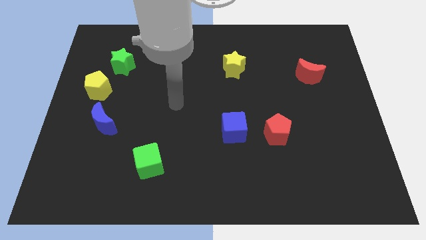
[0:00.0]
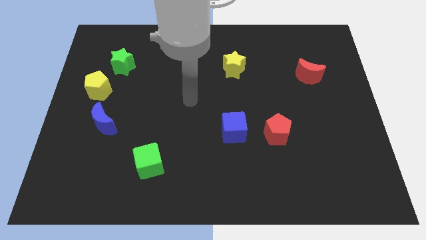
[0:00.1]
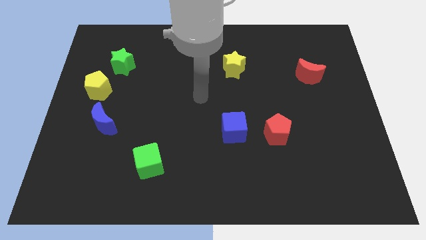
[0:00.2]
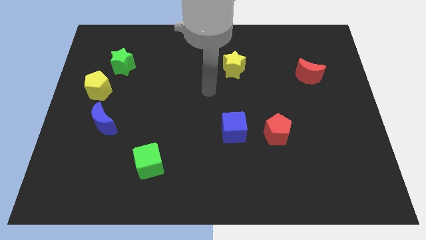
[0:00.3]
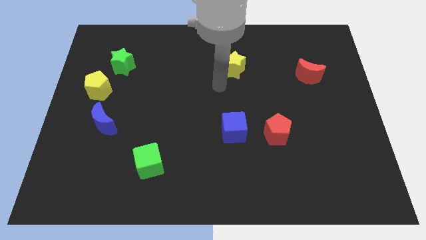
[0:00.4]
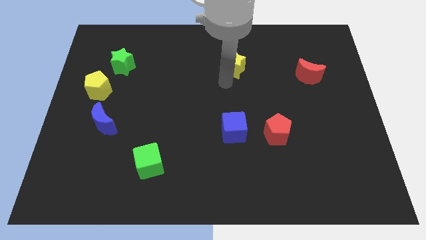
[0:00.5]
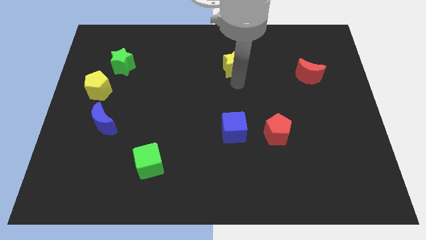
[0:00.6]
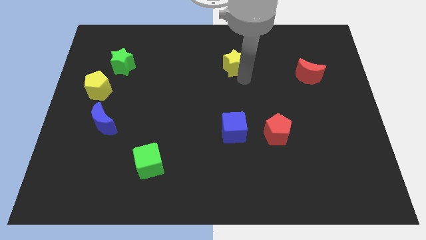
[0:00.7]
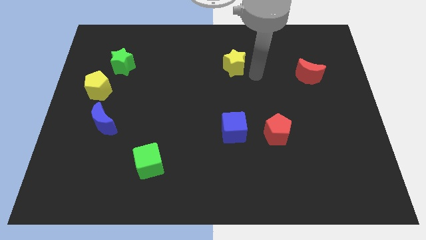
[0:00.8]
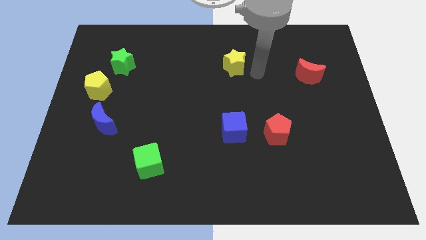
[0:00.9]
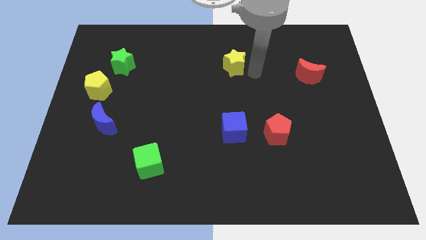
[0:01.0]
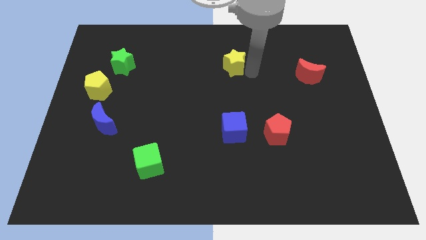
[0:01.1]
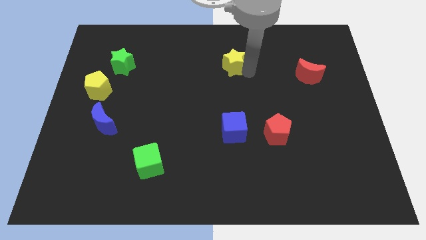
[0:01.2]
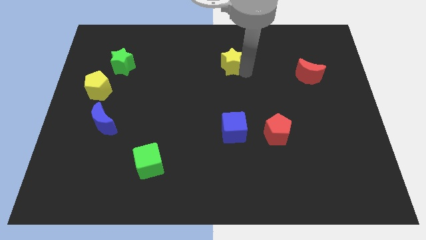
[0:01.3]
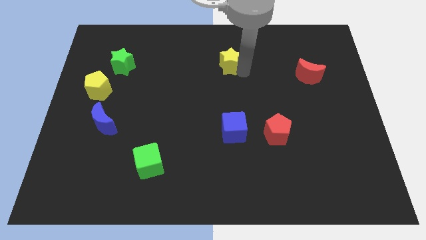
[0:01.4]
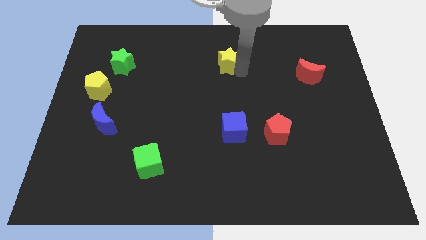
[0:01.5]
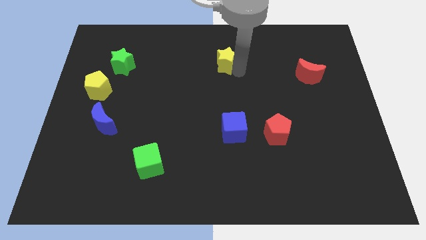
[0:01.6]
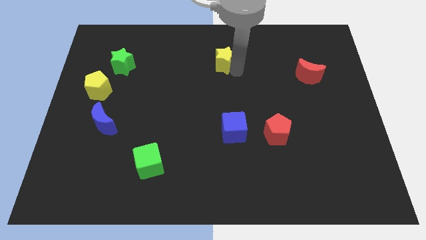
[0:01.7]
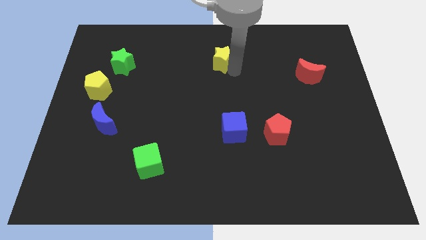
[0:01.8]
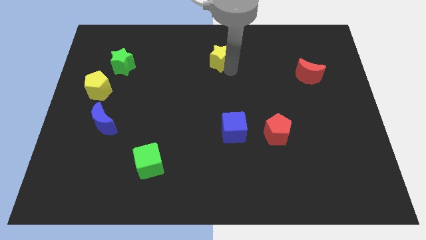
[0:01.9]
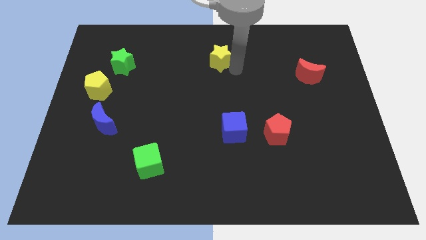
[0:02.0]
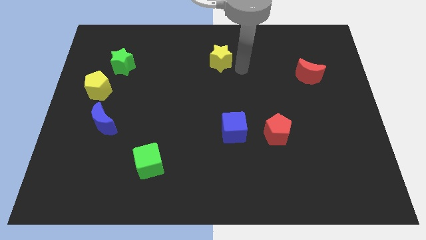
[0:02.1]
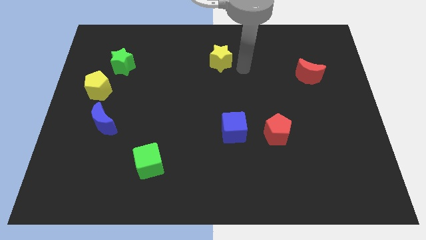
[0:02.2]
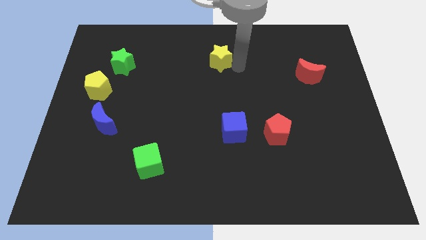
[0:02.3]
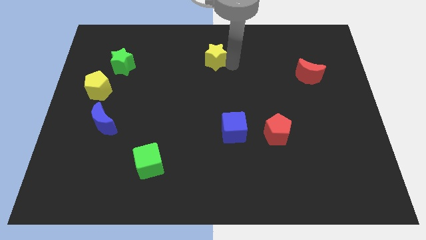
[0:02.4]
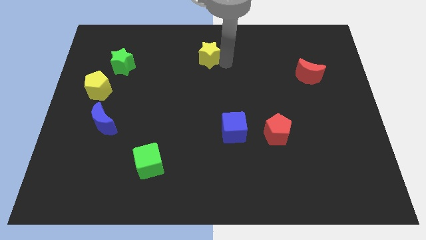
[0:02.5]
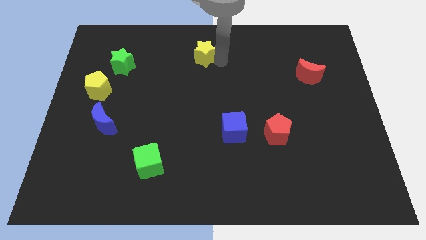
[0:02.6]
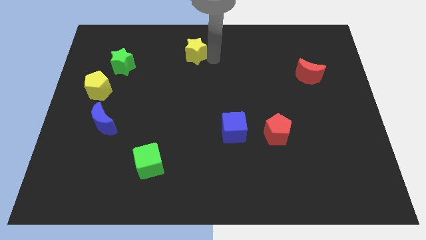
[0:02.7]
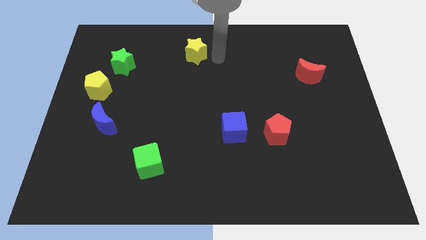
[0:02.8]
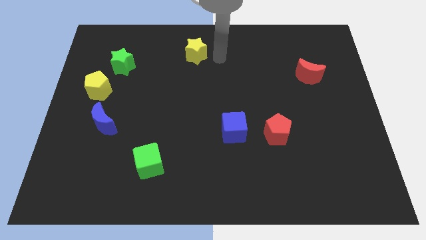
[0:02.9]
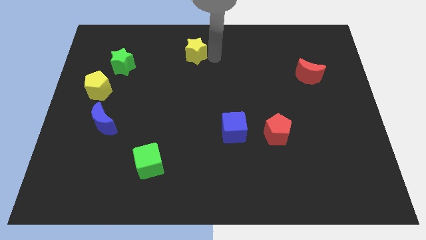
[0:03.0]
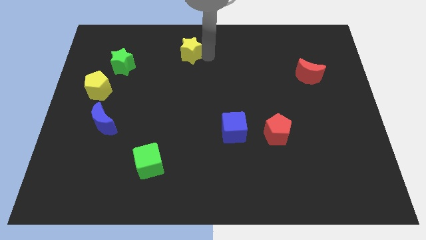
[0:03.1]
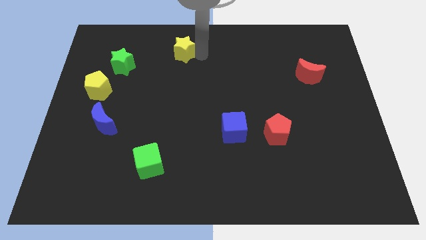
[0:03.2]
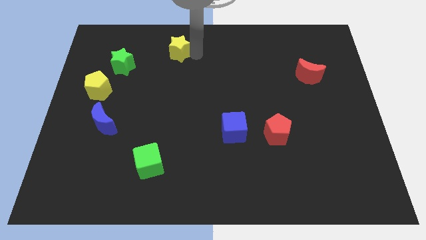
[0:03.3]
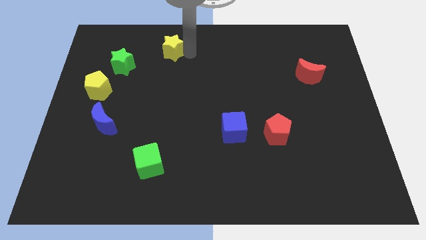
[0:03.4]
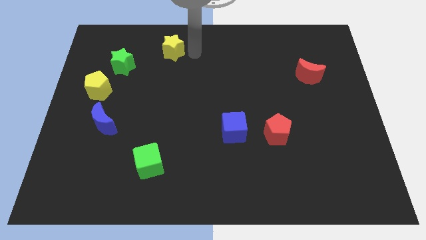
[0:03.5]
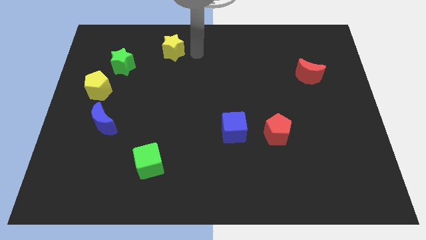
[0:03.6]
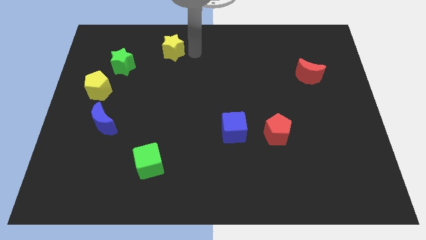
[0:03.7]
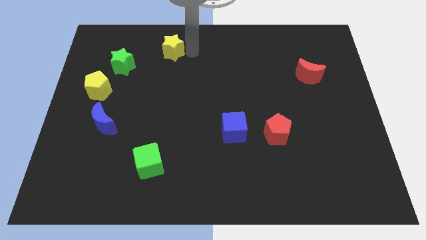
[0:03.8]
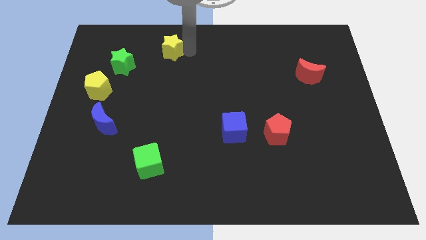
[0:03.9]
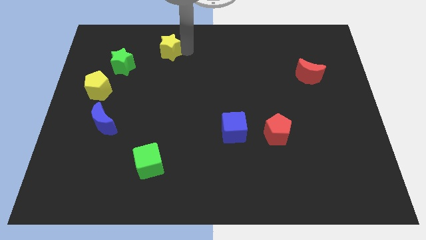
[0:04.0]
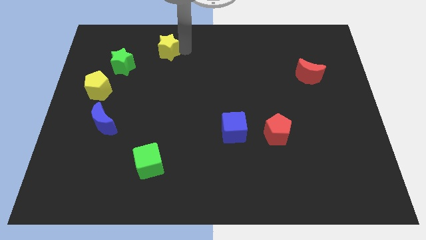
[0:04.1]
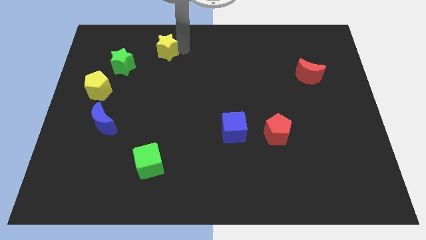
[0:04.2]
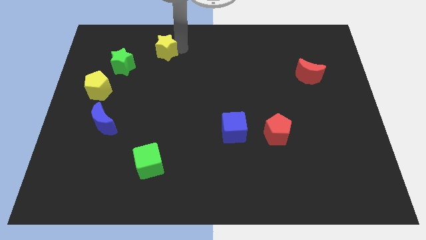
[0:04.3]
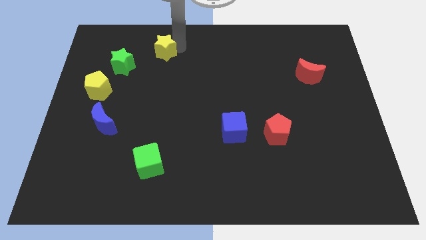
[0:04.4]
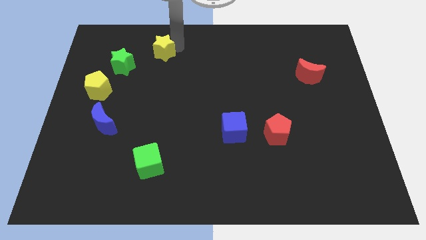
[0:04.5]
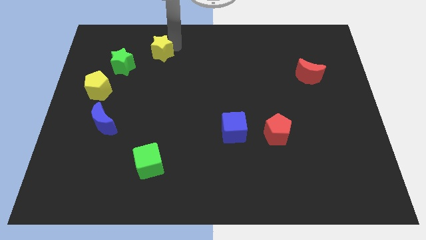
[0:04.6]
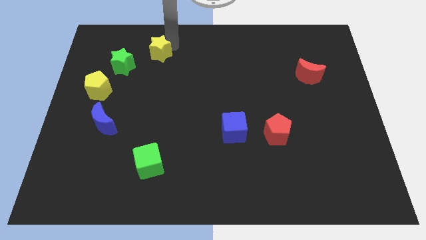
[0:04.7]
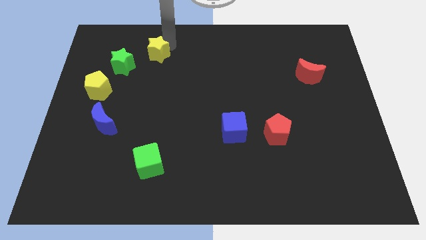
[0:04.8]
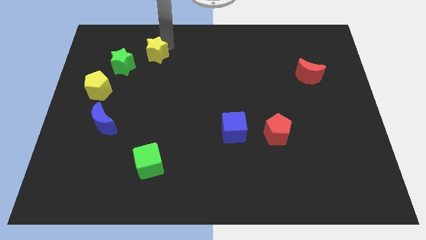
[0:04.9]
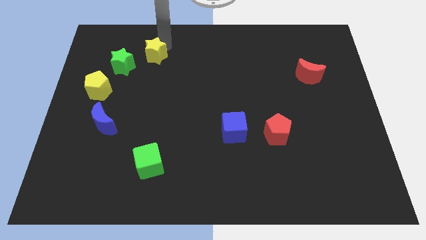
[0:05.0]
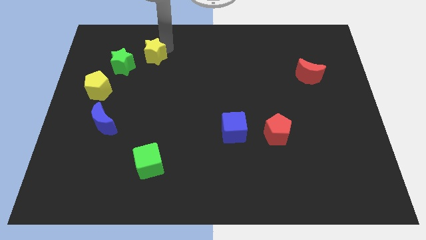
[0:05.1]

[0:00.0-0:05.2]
slide the yellow star to the left

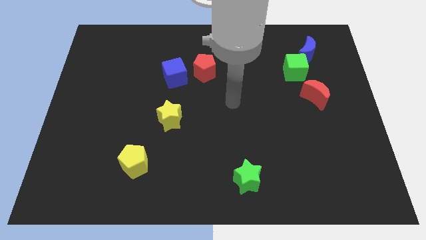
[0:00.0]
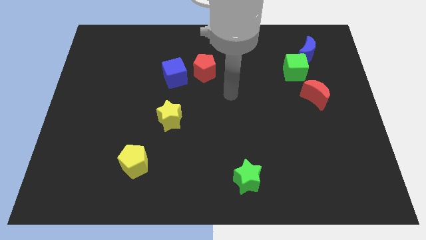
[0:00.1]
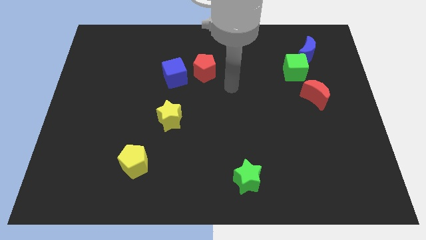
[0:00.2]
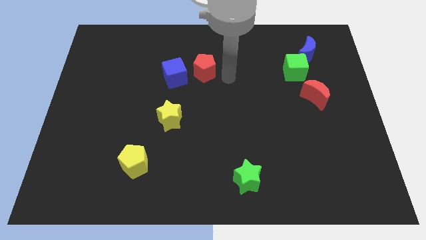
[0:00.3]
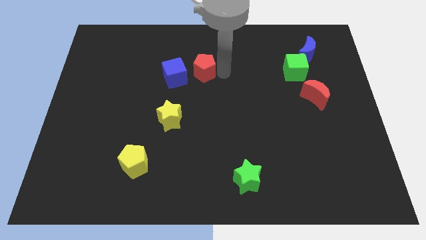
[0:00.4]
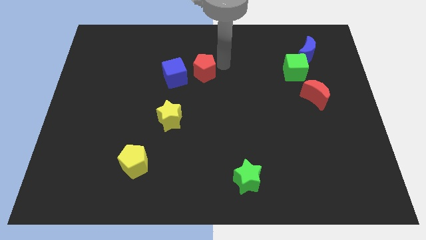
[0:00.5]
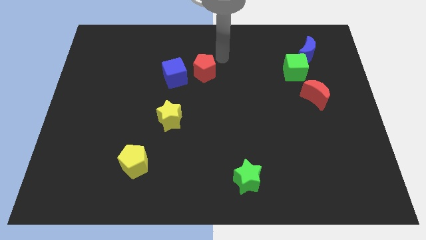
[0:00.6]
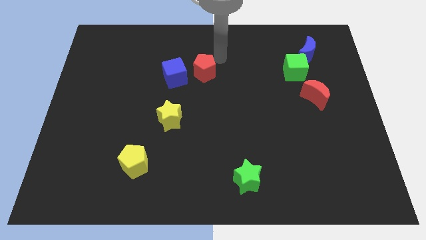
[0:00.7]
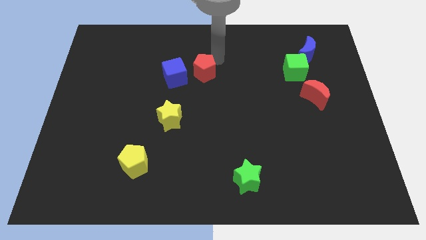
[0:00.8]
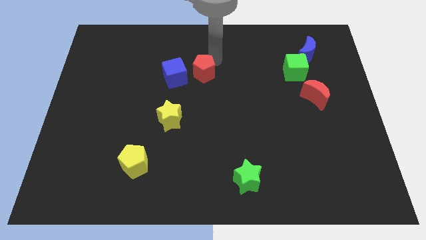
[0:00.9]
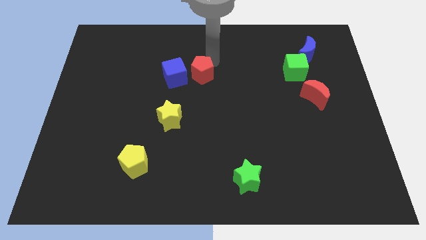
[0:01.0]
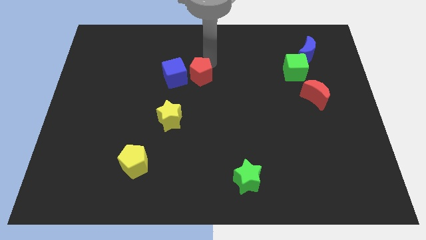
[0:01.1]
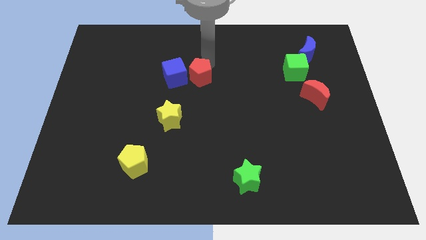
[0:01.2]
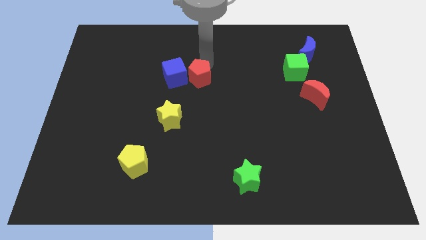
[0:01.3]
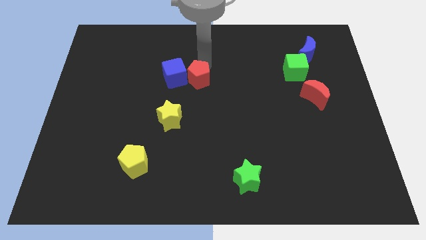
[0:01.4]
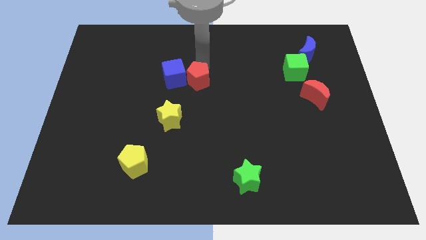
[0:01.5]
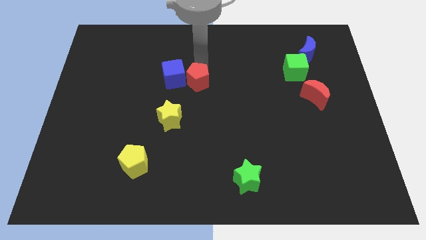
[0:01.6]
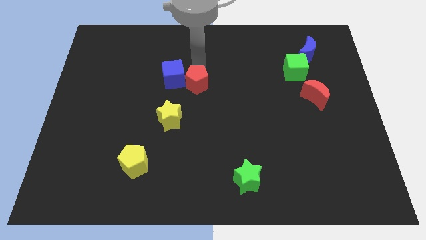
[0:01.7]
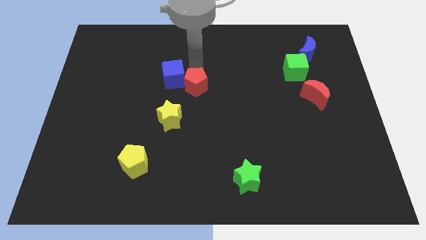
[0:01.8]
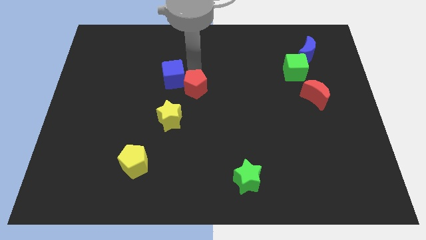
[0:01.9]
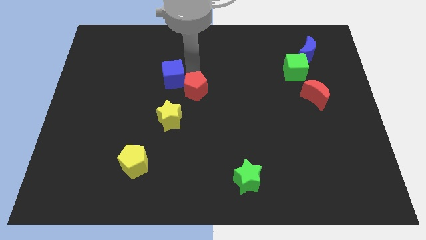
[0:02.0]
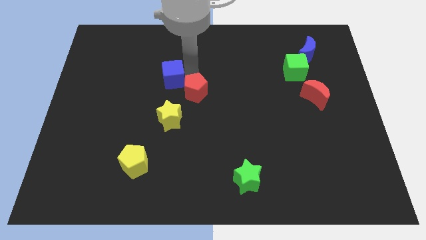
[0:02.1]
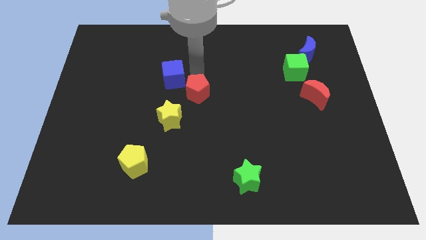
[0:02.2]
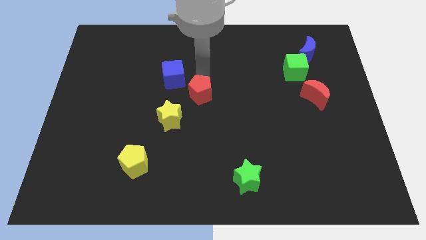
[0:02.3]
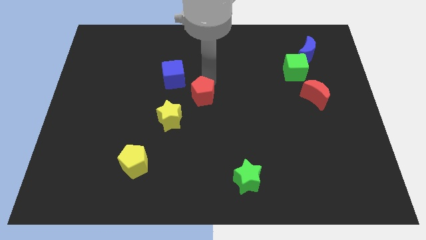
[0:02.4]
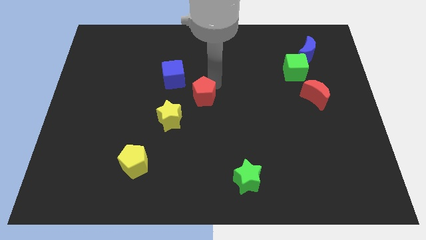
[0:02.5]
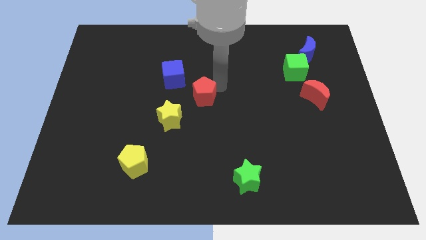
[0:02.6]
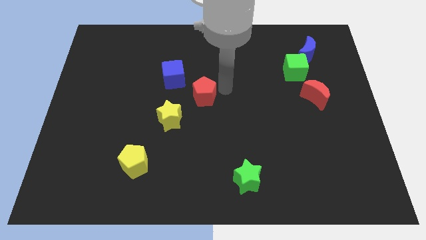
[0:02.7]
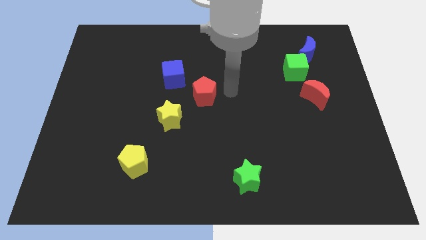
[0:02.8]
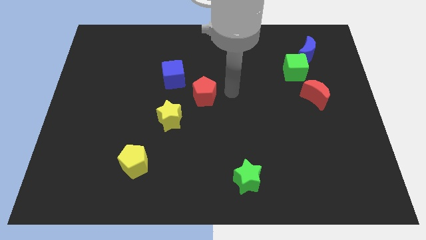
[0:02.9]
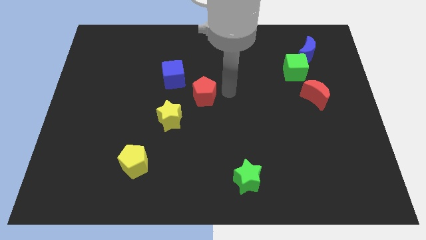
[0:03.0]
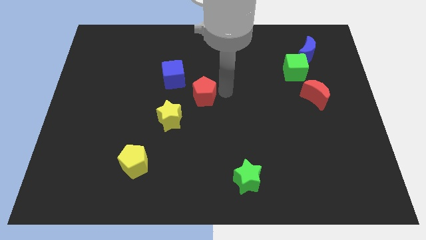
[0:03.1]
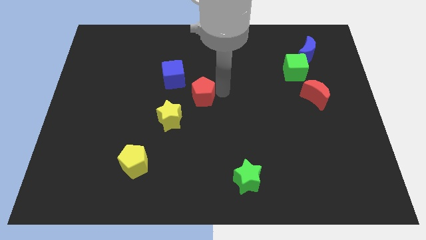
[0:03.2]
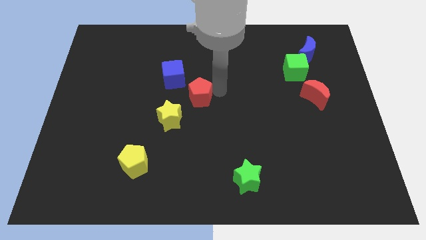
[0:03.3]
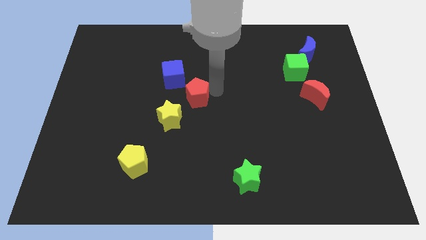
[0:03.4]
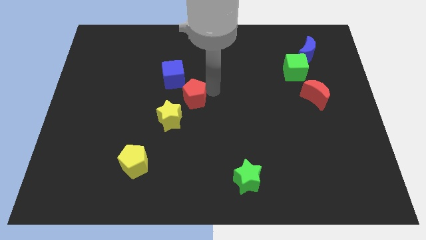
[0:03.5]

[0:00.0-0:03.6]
move the red pentagon downwards and to the left diagonally slightly
